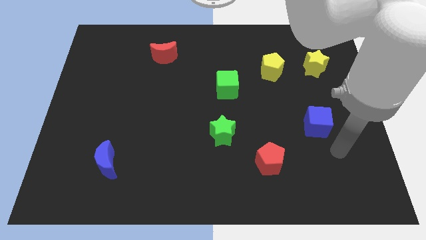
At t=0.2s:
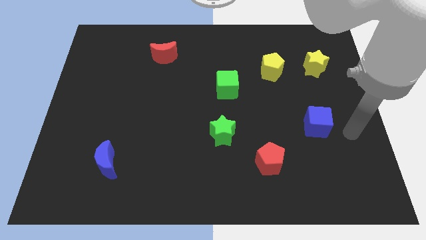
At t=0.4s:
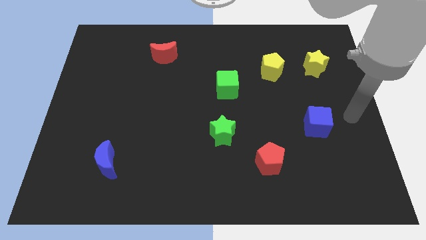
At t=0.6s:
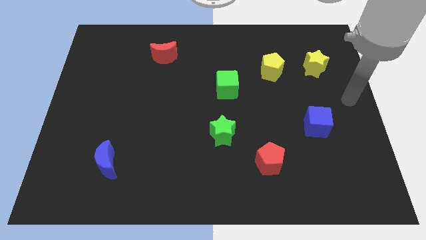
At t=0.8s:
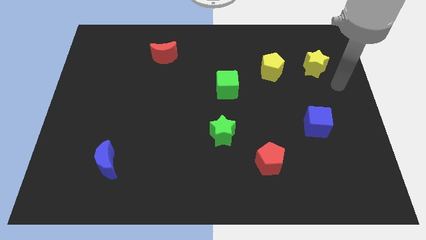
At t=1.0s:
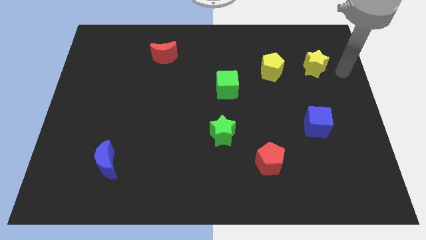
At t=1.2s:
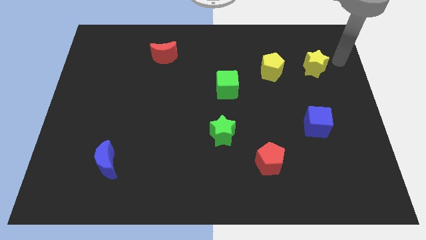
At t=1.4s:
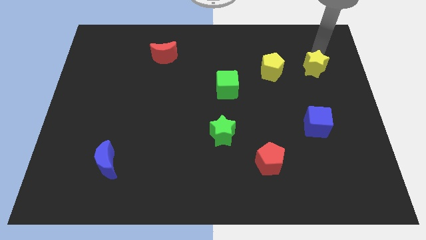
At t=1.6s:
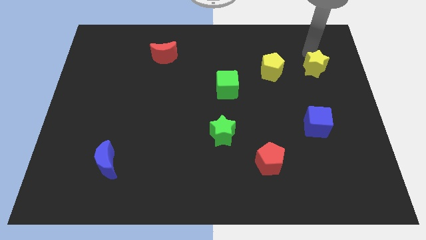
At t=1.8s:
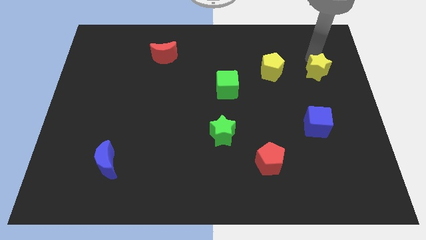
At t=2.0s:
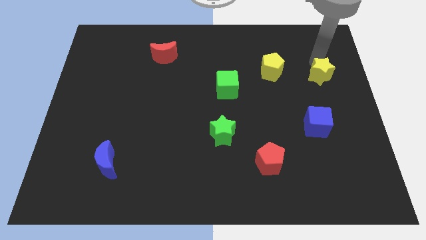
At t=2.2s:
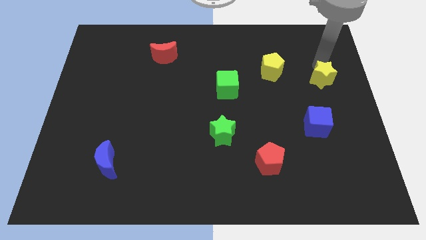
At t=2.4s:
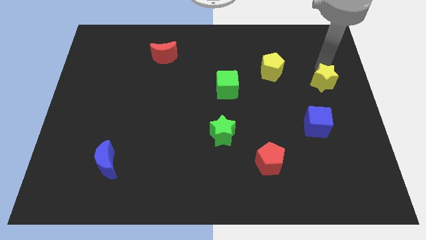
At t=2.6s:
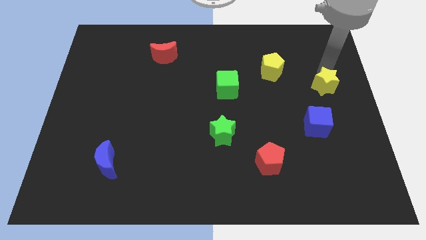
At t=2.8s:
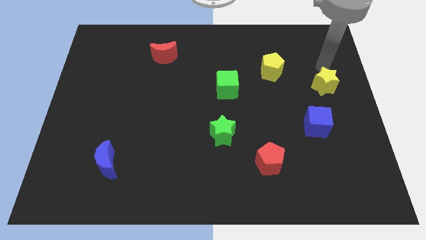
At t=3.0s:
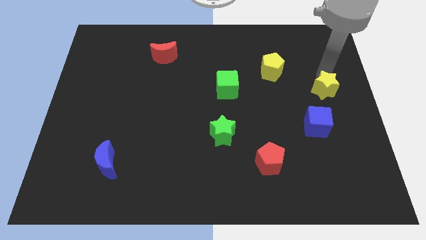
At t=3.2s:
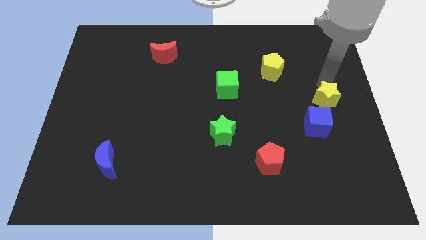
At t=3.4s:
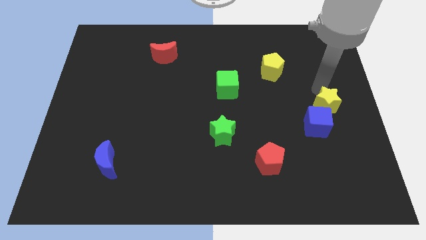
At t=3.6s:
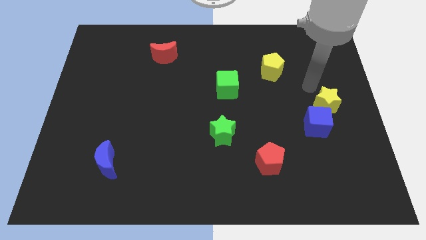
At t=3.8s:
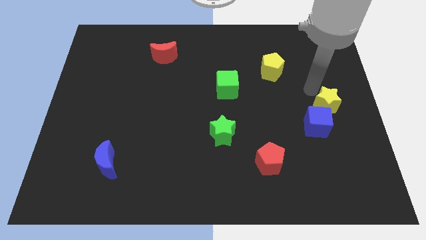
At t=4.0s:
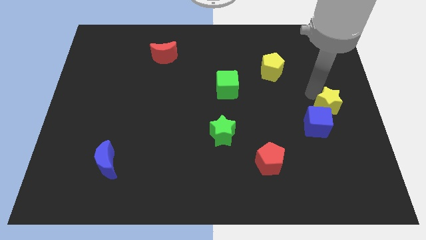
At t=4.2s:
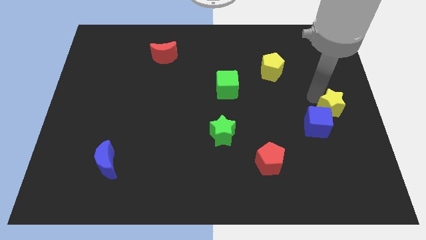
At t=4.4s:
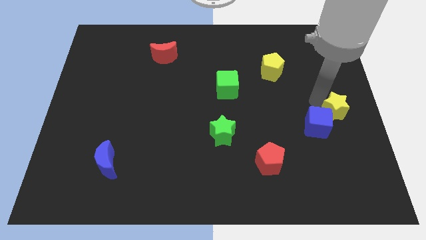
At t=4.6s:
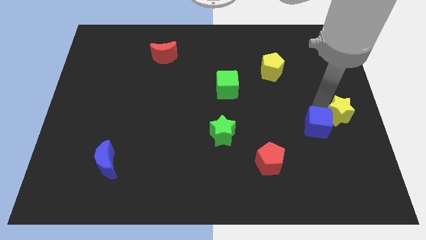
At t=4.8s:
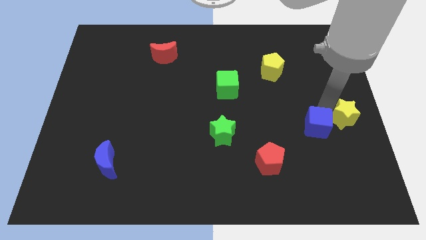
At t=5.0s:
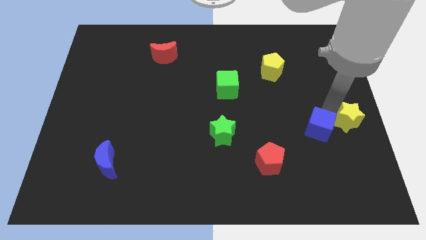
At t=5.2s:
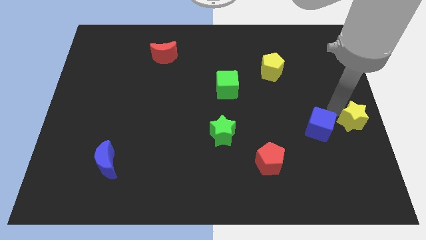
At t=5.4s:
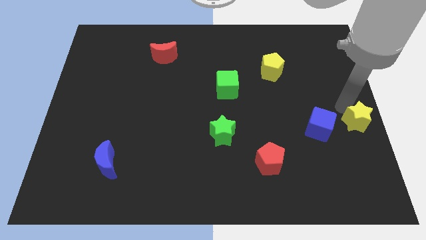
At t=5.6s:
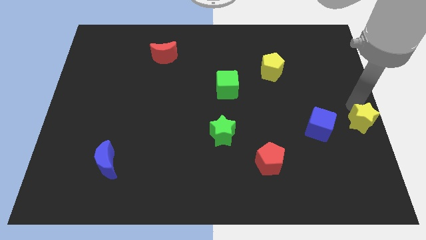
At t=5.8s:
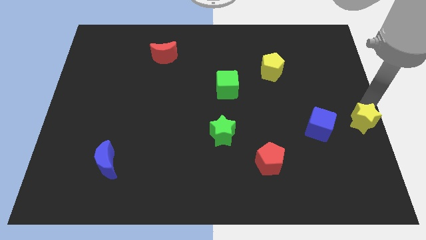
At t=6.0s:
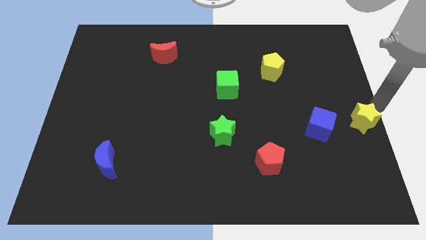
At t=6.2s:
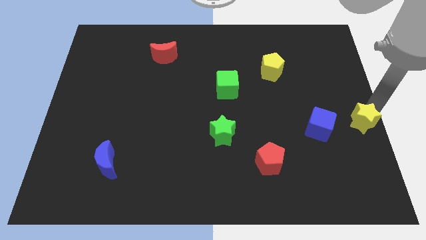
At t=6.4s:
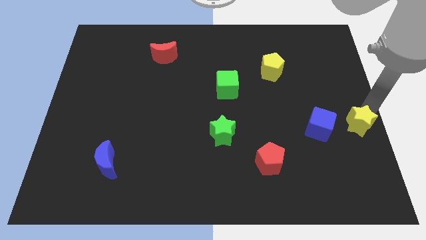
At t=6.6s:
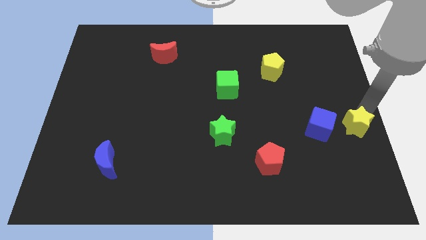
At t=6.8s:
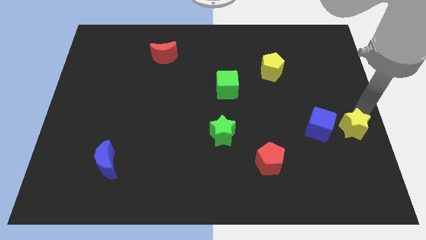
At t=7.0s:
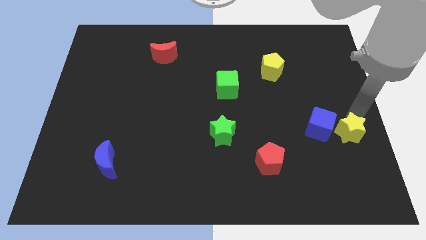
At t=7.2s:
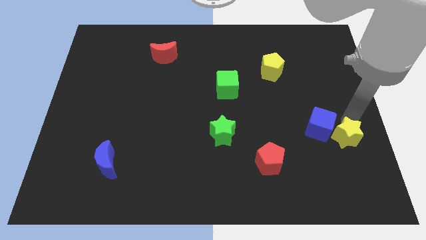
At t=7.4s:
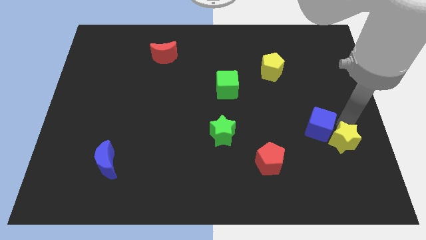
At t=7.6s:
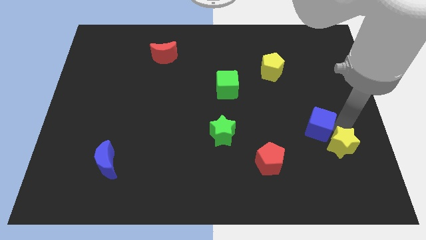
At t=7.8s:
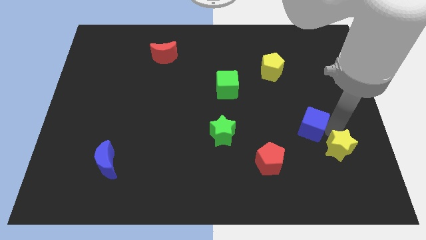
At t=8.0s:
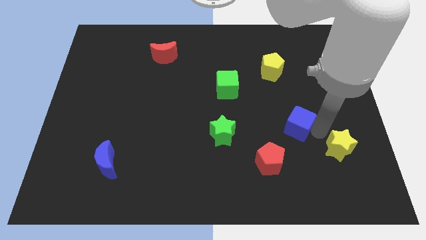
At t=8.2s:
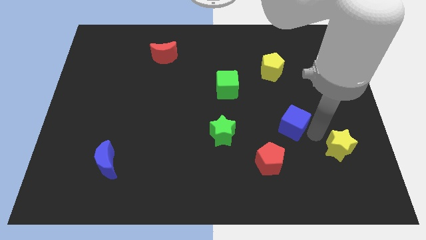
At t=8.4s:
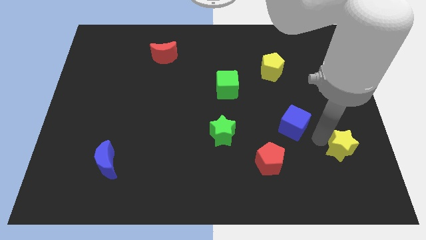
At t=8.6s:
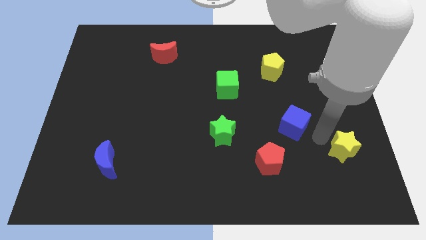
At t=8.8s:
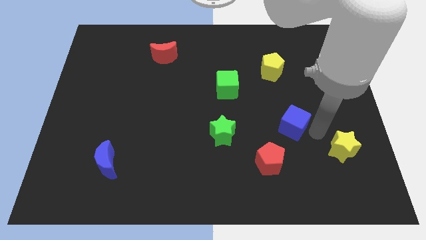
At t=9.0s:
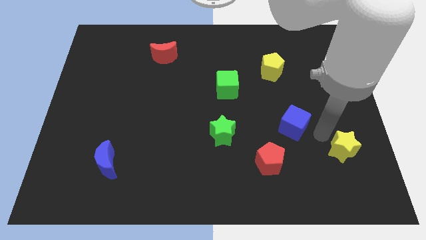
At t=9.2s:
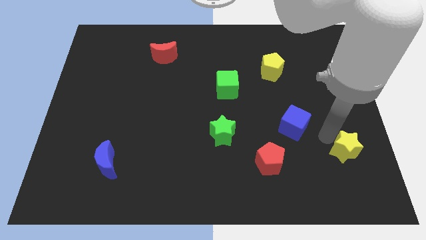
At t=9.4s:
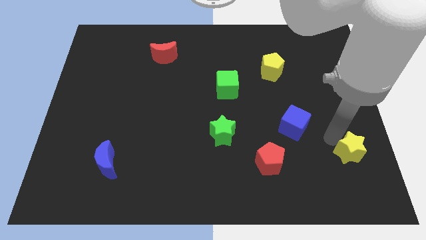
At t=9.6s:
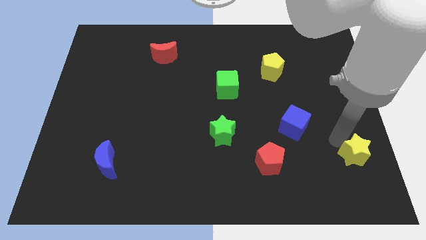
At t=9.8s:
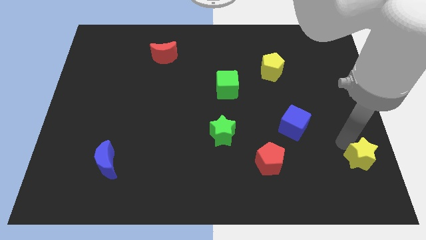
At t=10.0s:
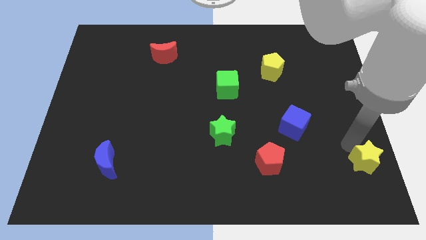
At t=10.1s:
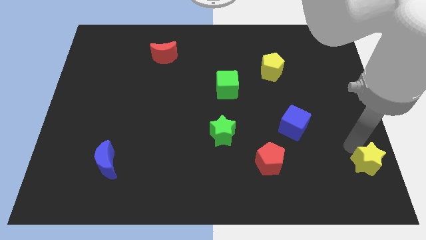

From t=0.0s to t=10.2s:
slide the yellow star to the bottom right
